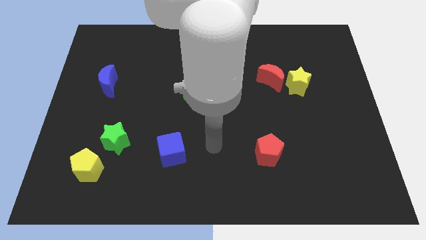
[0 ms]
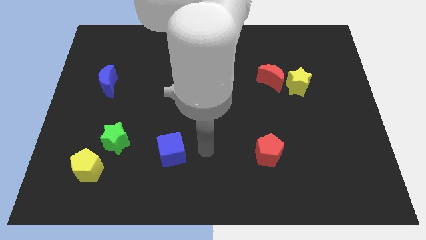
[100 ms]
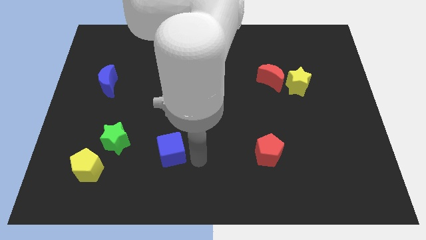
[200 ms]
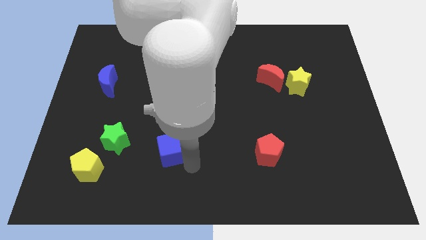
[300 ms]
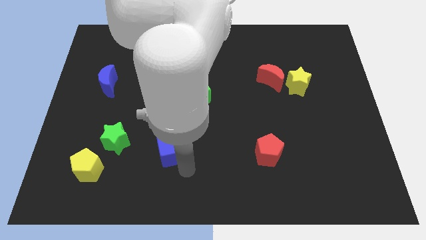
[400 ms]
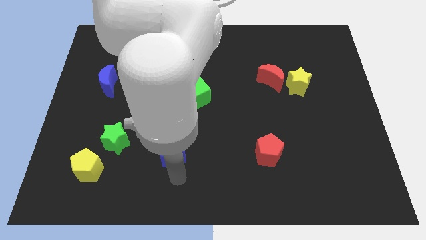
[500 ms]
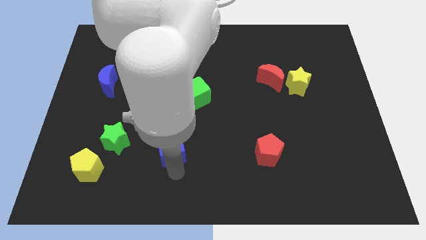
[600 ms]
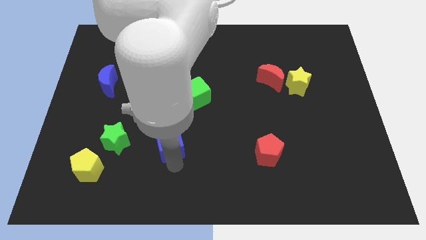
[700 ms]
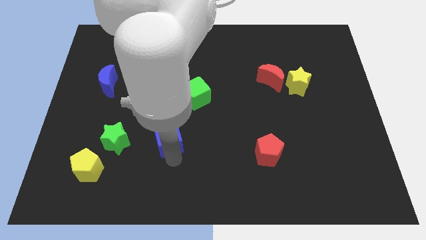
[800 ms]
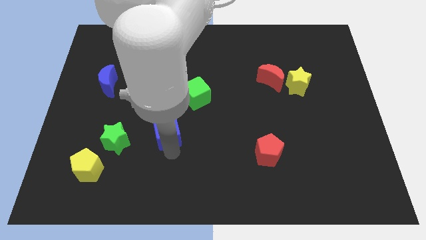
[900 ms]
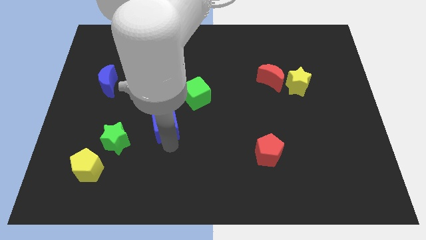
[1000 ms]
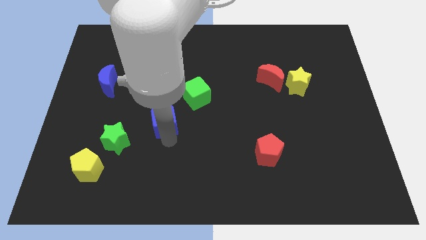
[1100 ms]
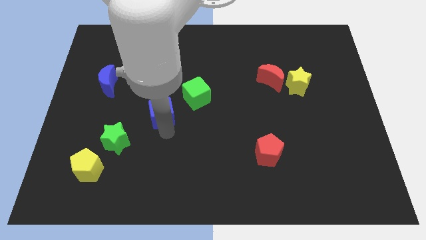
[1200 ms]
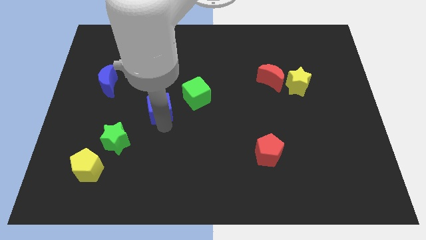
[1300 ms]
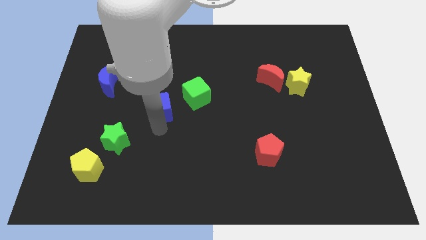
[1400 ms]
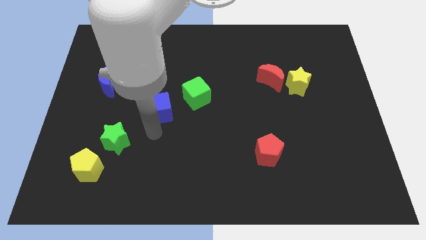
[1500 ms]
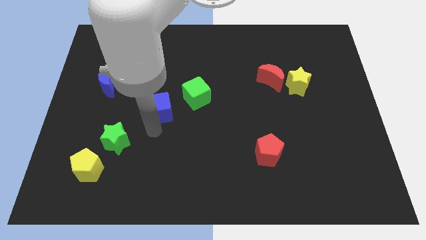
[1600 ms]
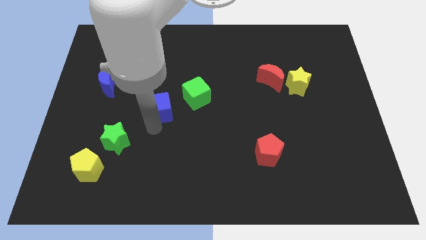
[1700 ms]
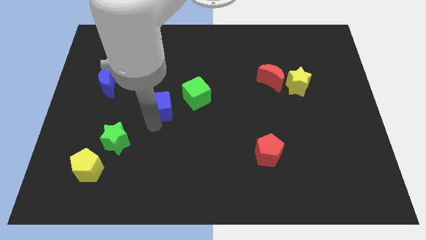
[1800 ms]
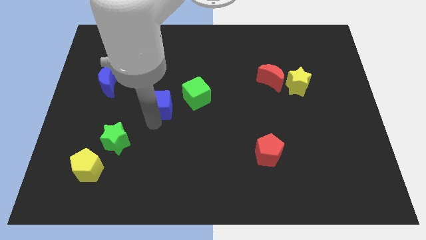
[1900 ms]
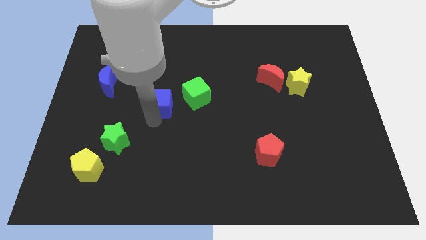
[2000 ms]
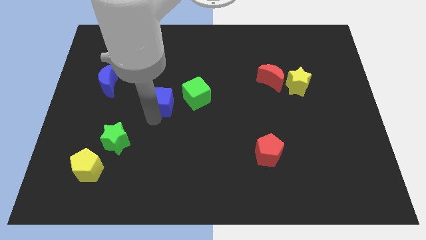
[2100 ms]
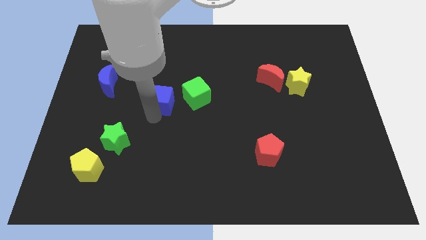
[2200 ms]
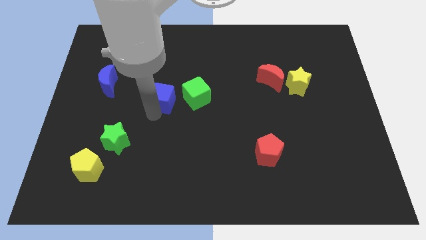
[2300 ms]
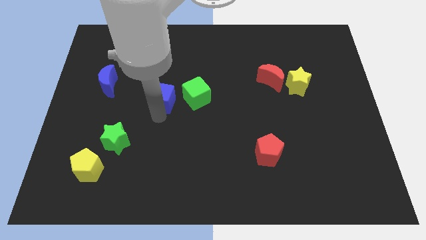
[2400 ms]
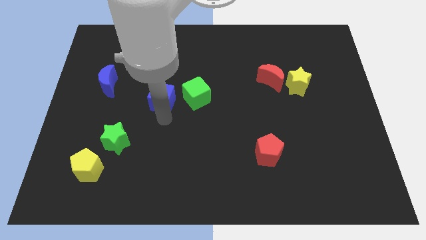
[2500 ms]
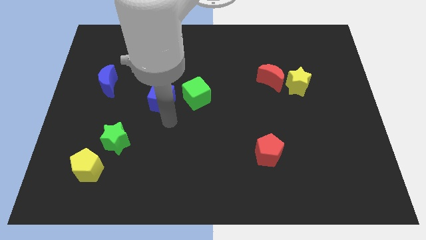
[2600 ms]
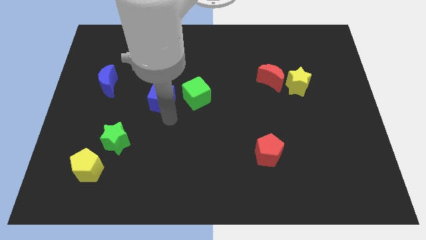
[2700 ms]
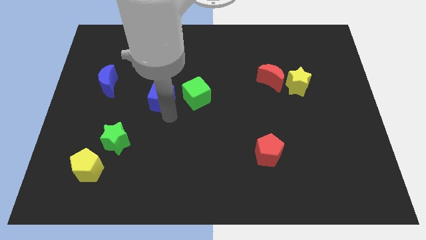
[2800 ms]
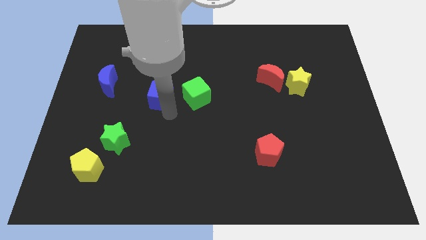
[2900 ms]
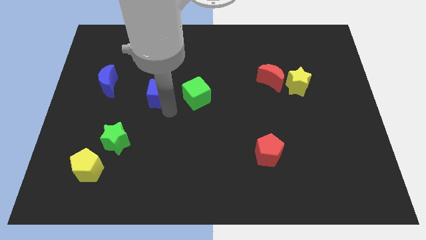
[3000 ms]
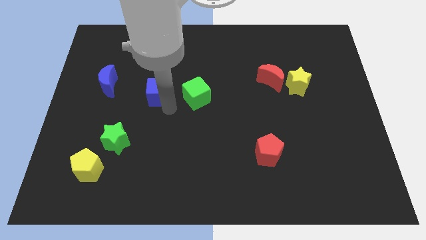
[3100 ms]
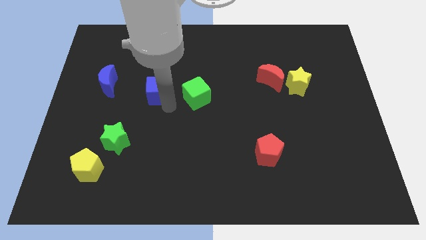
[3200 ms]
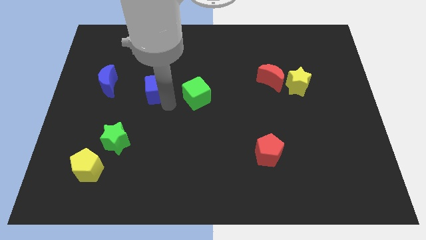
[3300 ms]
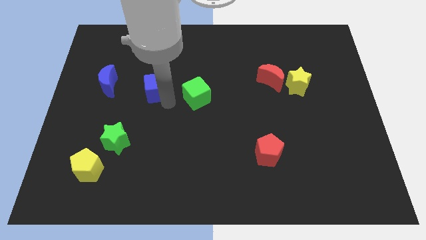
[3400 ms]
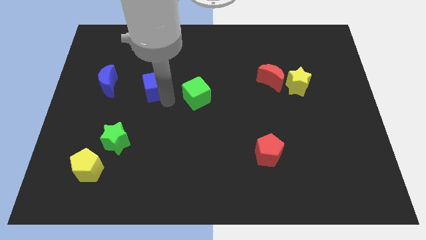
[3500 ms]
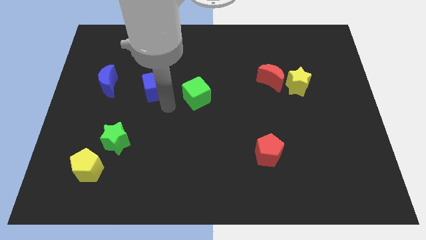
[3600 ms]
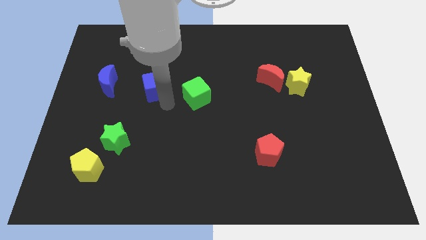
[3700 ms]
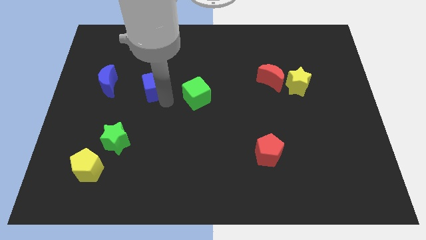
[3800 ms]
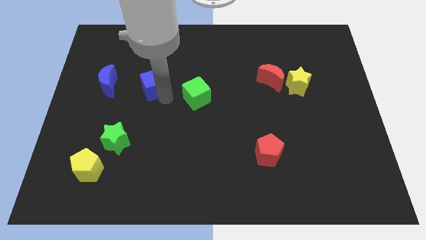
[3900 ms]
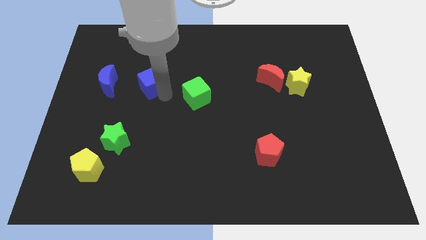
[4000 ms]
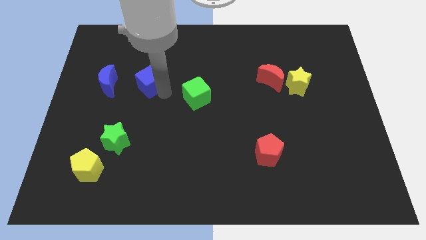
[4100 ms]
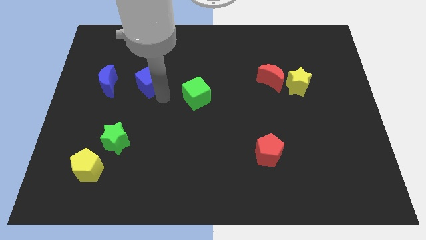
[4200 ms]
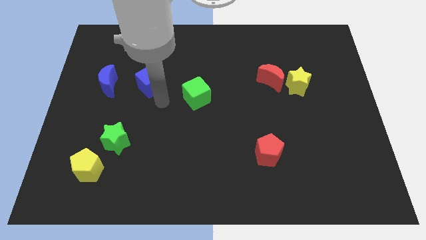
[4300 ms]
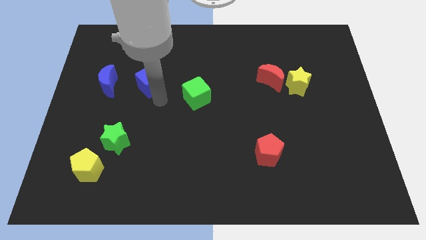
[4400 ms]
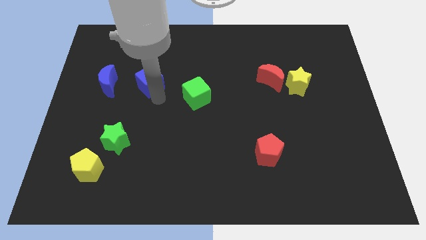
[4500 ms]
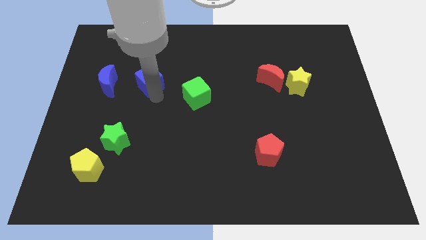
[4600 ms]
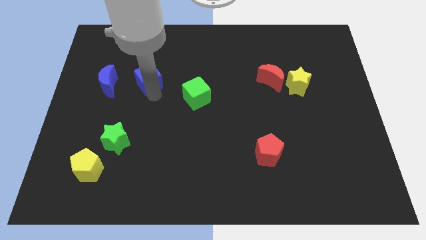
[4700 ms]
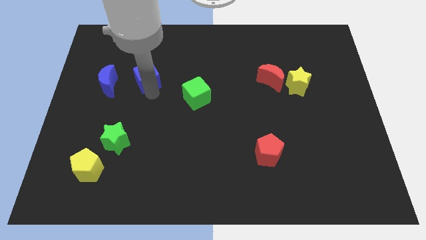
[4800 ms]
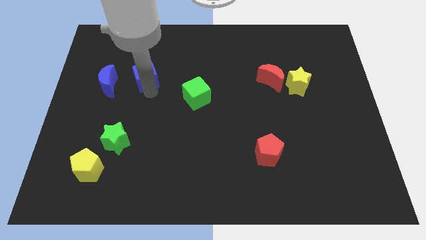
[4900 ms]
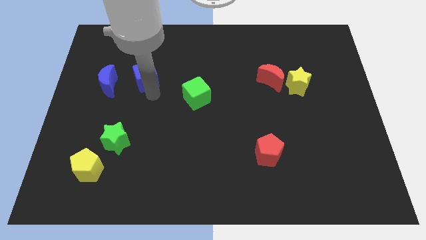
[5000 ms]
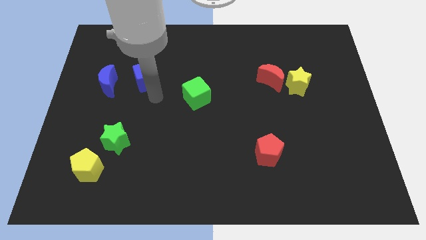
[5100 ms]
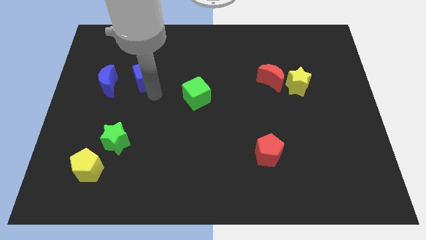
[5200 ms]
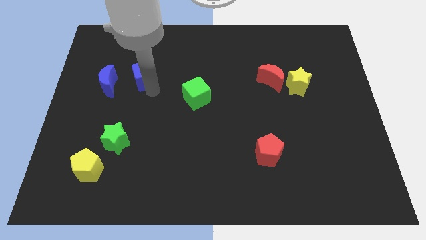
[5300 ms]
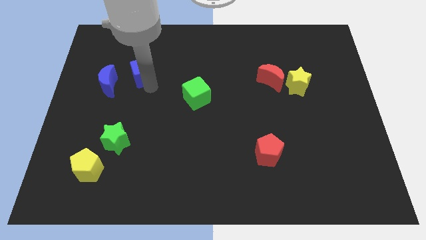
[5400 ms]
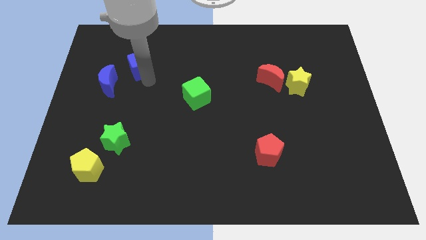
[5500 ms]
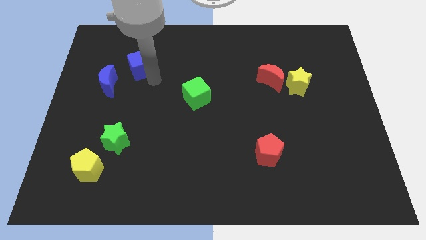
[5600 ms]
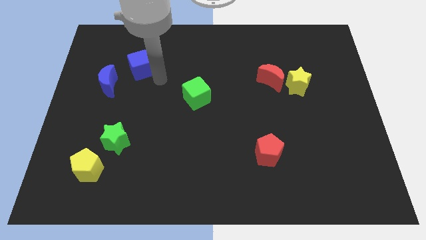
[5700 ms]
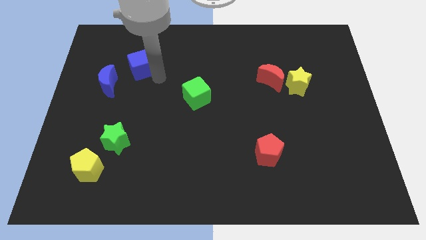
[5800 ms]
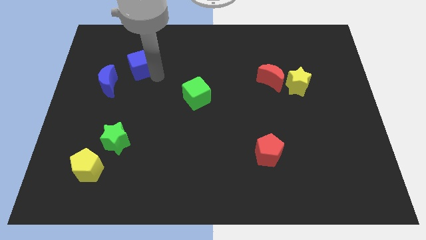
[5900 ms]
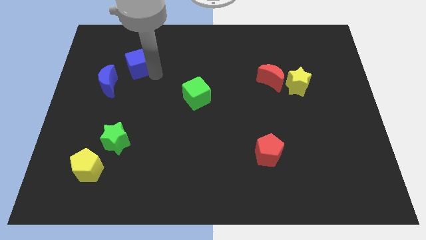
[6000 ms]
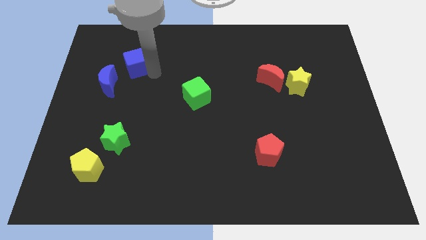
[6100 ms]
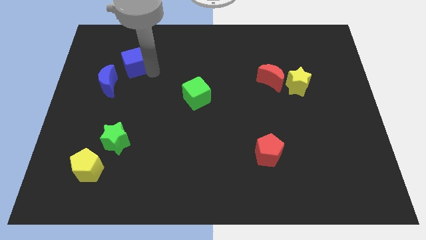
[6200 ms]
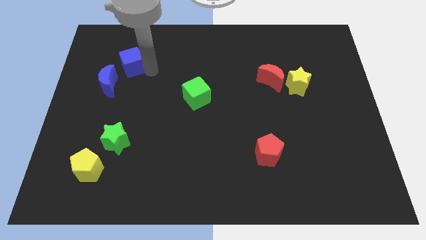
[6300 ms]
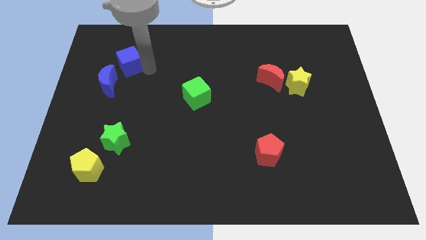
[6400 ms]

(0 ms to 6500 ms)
push the blue cube to the top side of the blue moon
